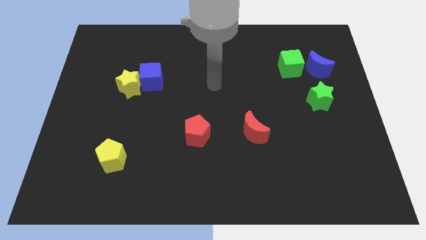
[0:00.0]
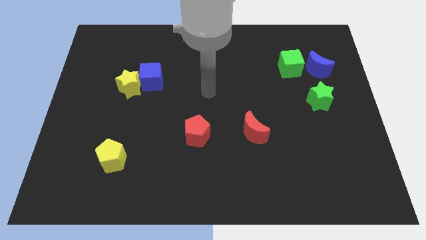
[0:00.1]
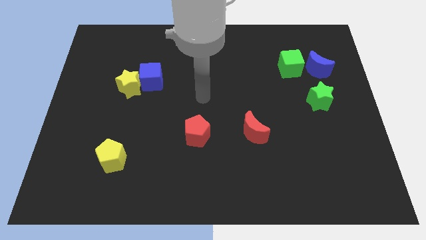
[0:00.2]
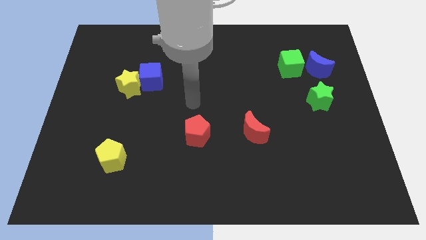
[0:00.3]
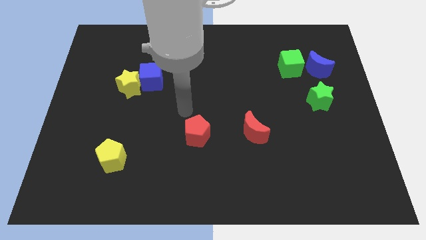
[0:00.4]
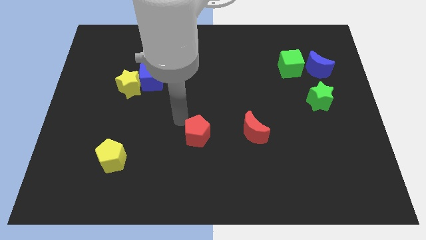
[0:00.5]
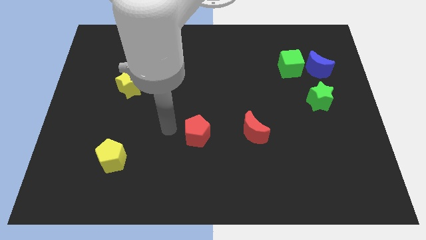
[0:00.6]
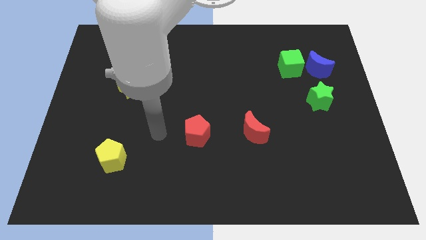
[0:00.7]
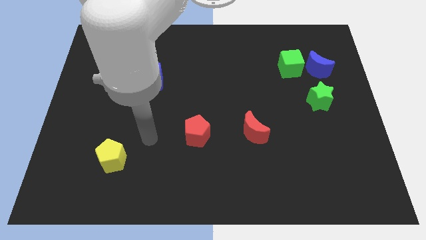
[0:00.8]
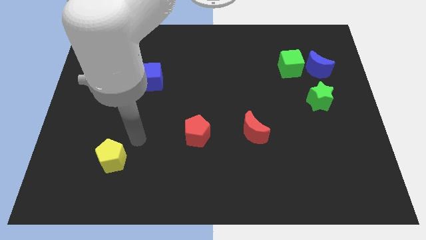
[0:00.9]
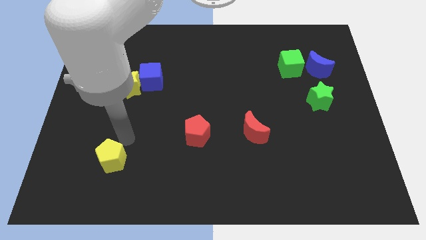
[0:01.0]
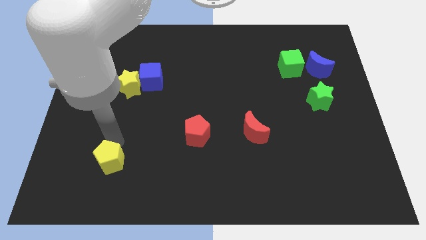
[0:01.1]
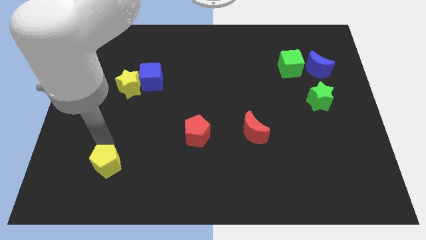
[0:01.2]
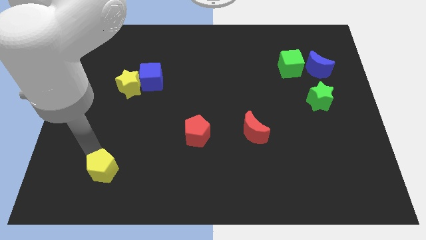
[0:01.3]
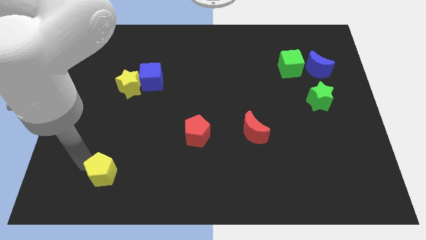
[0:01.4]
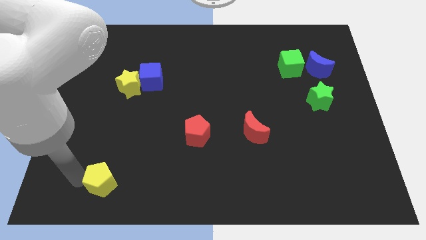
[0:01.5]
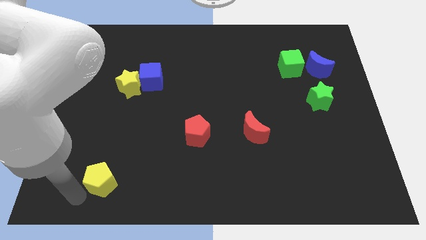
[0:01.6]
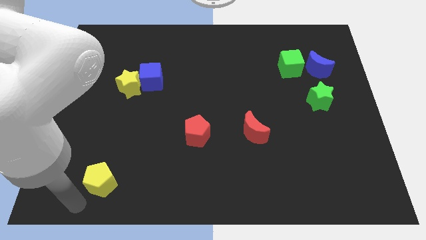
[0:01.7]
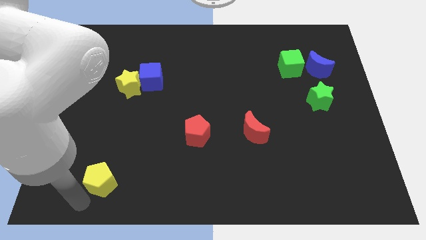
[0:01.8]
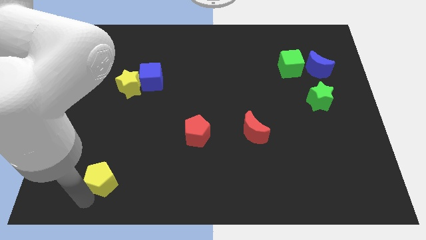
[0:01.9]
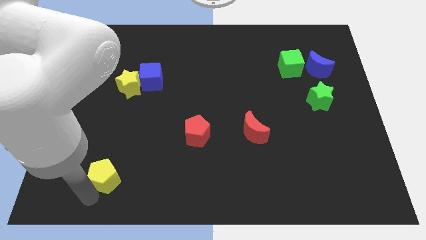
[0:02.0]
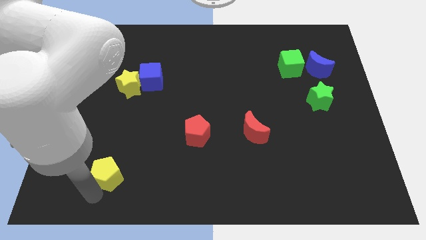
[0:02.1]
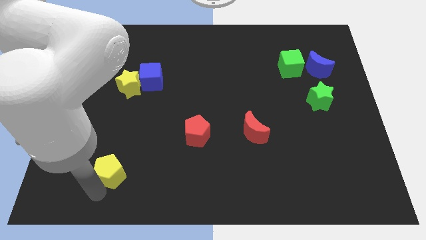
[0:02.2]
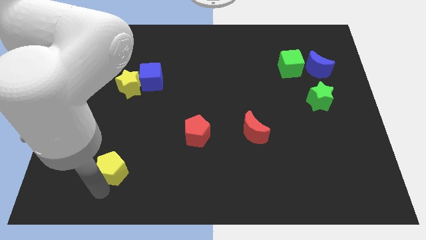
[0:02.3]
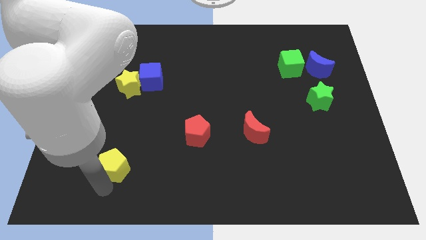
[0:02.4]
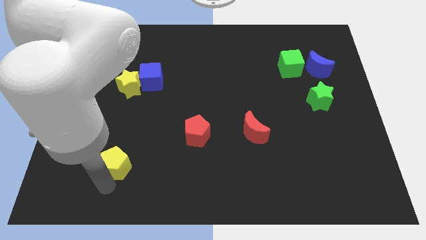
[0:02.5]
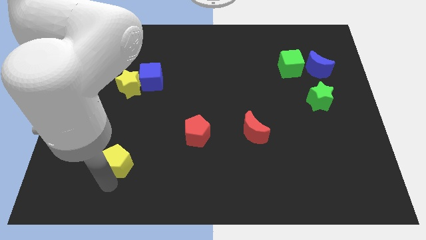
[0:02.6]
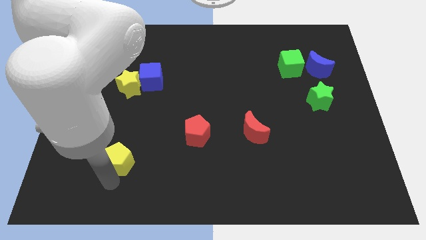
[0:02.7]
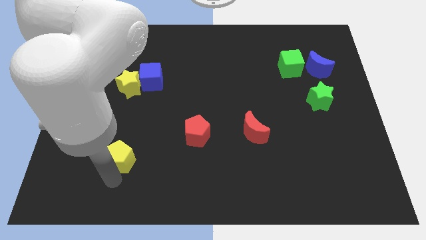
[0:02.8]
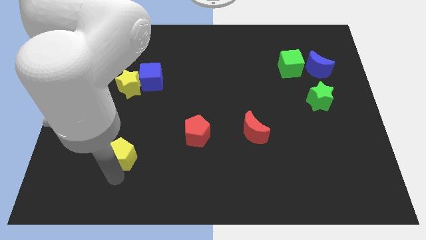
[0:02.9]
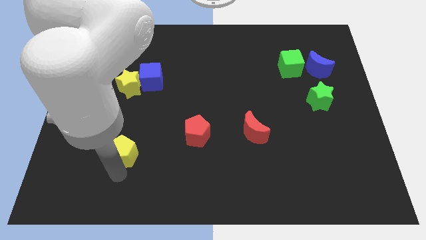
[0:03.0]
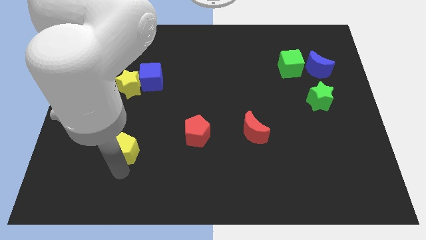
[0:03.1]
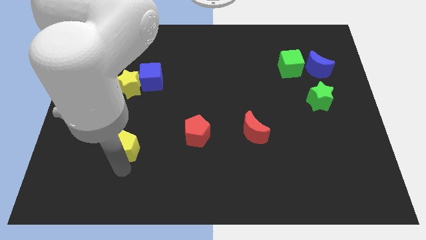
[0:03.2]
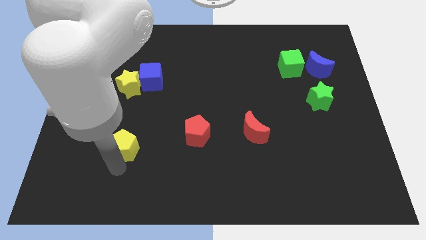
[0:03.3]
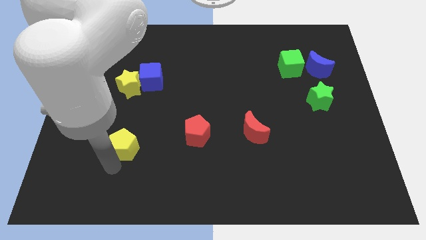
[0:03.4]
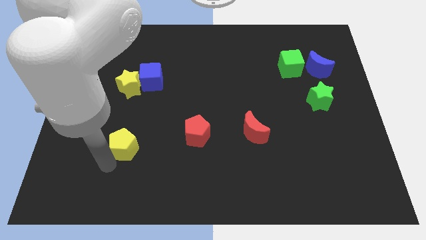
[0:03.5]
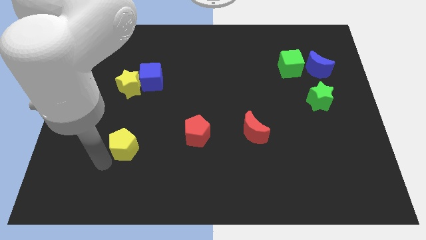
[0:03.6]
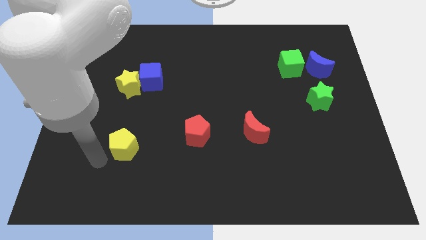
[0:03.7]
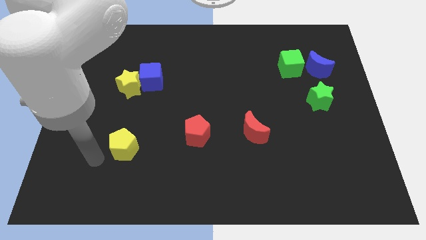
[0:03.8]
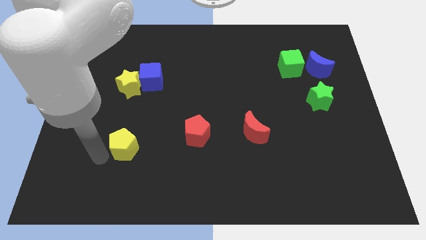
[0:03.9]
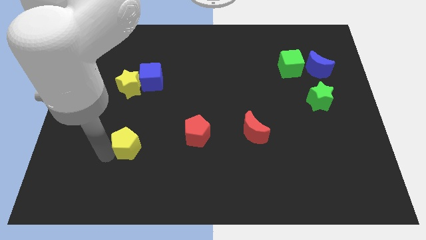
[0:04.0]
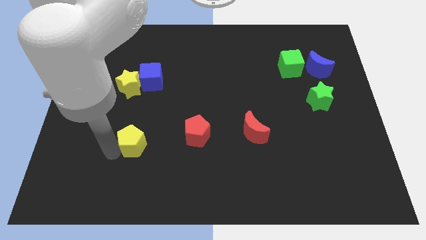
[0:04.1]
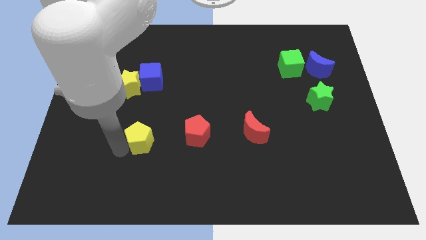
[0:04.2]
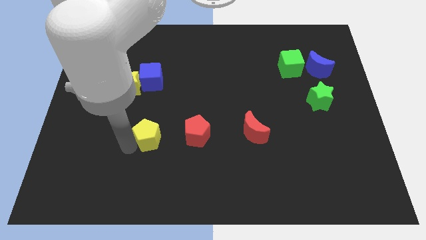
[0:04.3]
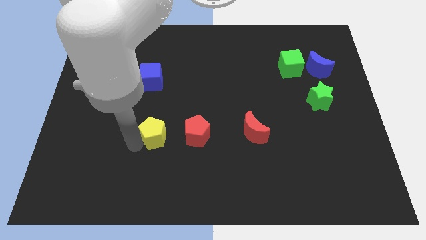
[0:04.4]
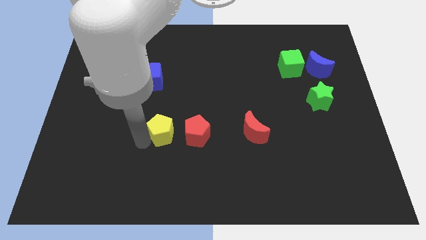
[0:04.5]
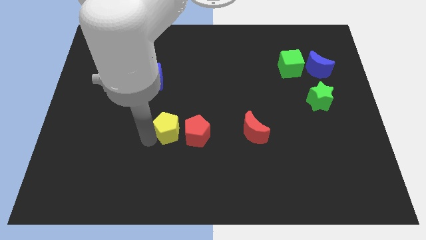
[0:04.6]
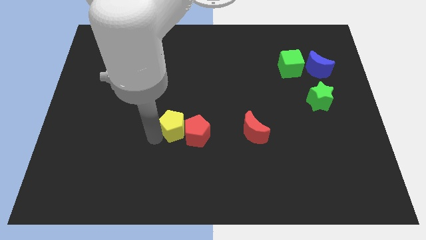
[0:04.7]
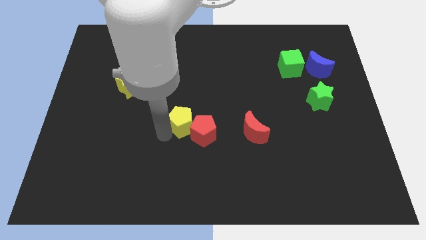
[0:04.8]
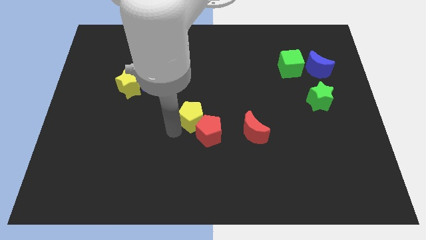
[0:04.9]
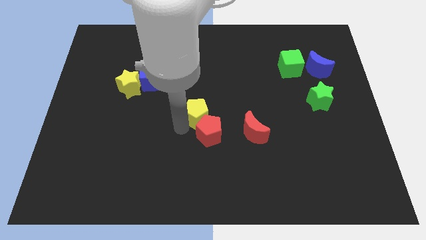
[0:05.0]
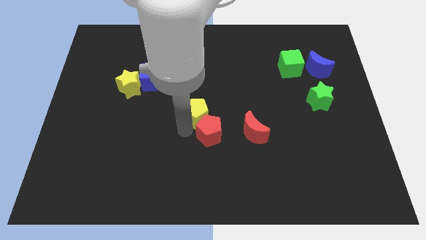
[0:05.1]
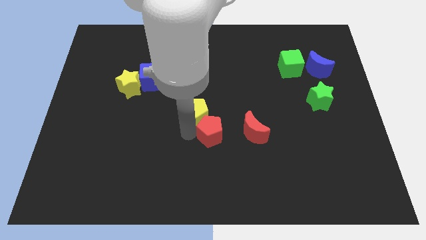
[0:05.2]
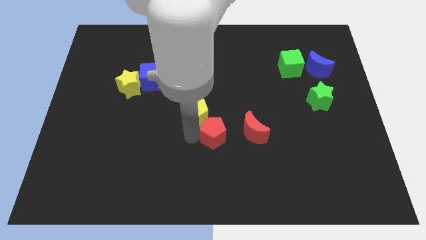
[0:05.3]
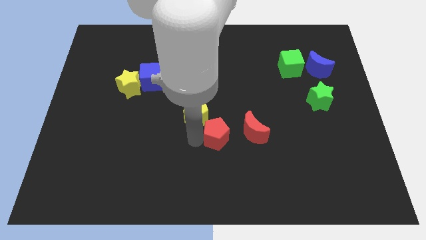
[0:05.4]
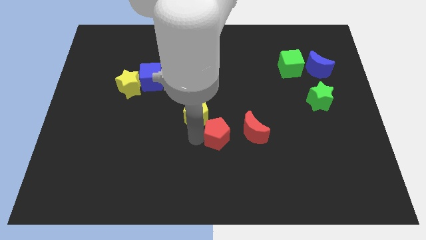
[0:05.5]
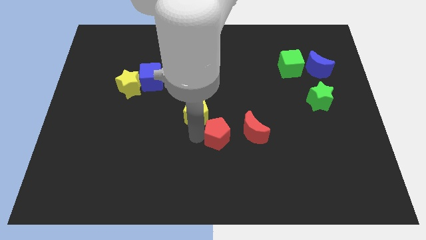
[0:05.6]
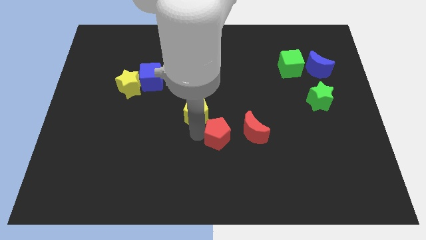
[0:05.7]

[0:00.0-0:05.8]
move the yellow pentagon up and right

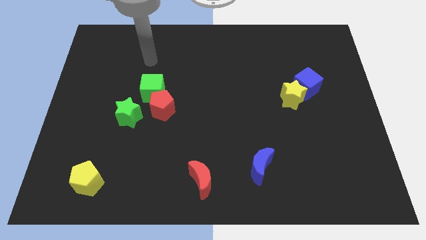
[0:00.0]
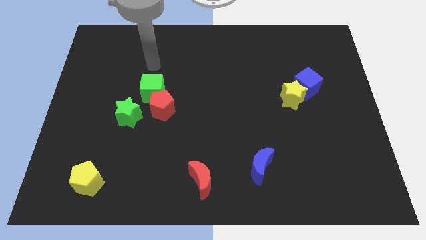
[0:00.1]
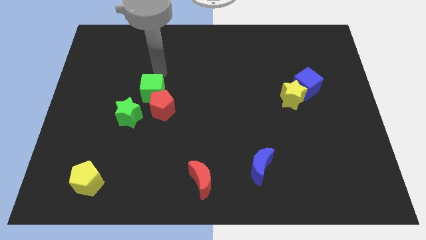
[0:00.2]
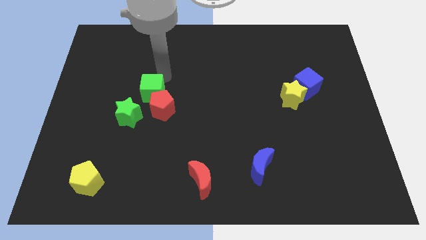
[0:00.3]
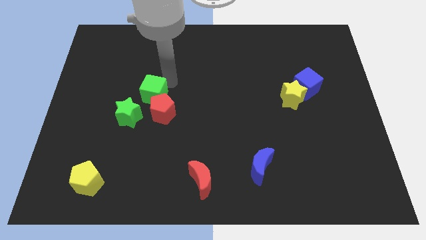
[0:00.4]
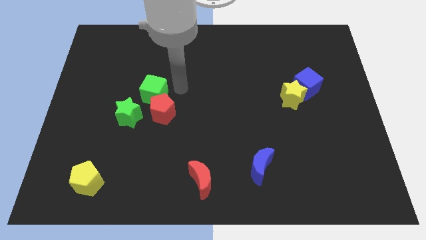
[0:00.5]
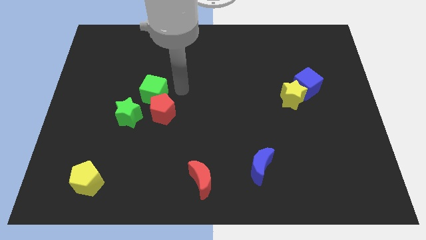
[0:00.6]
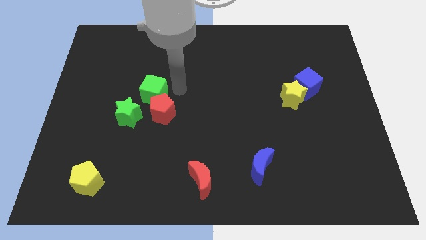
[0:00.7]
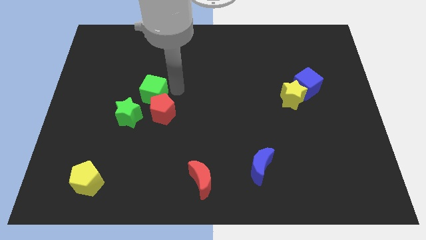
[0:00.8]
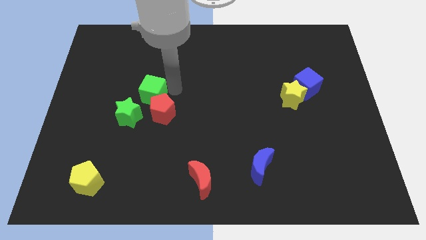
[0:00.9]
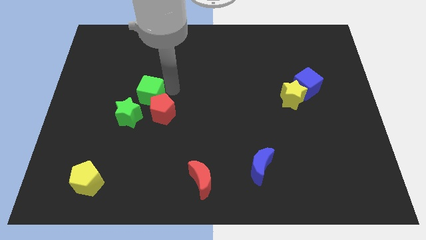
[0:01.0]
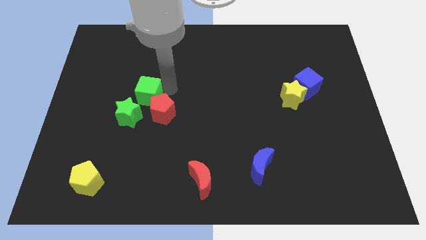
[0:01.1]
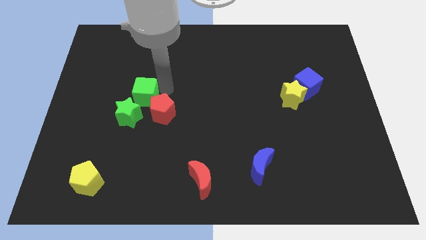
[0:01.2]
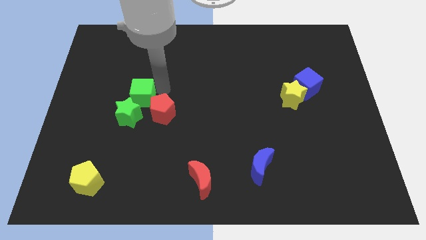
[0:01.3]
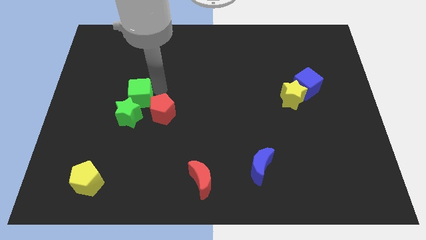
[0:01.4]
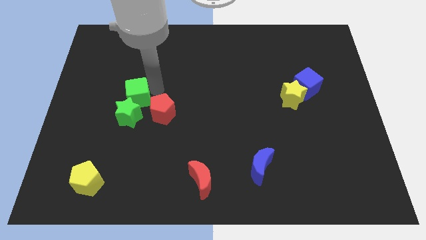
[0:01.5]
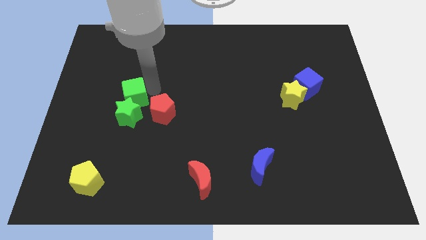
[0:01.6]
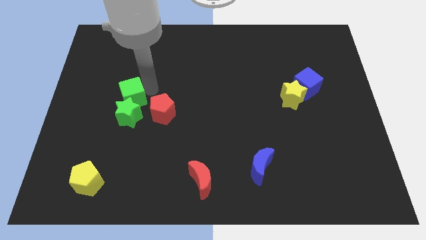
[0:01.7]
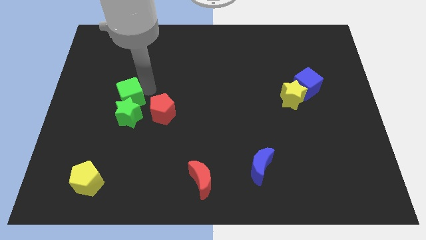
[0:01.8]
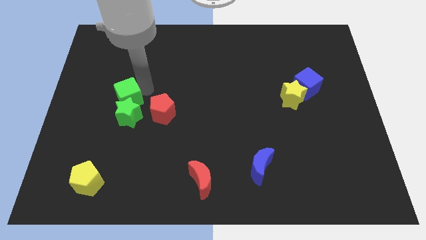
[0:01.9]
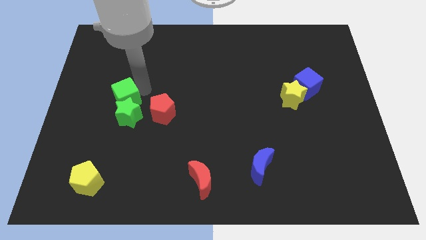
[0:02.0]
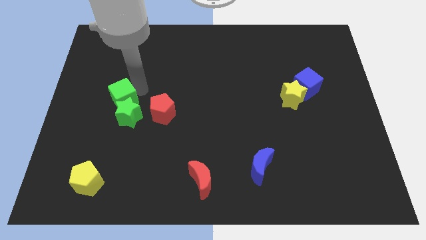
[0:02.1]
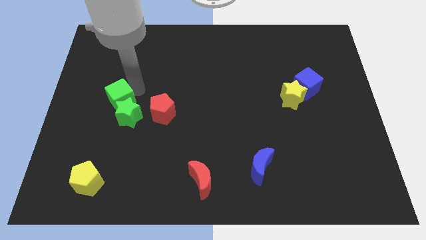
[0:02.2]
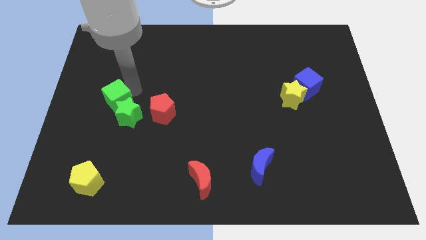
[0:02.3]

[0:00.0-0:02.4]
move the green cube a little bit diagonally downwards and left
